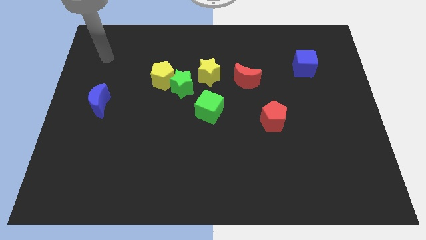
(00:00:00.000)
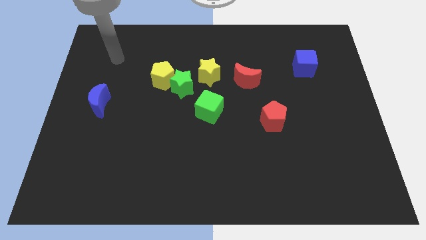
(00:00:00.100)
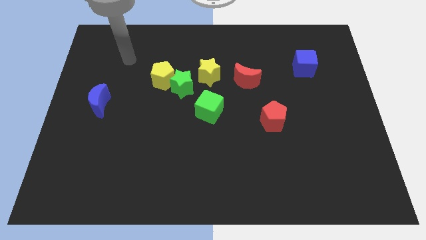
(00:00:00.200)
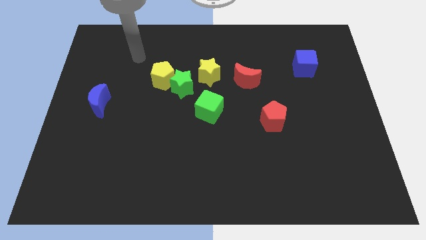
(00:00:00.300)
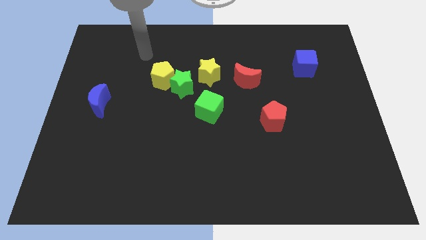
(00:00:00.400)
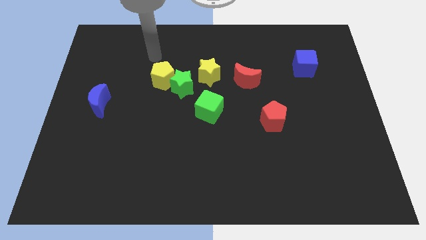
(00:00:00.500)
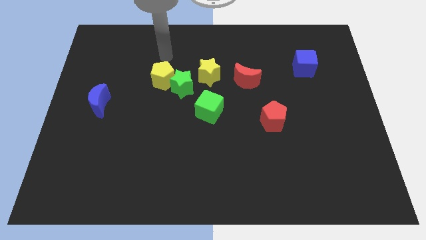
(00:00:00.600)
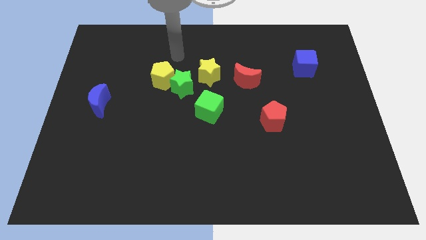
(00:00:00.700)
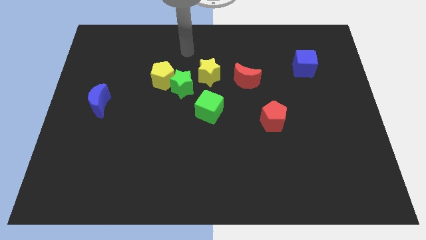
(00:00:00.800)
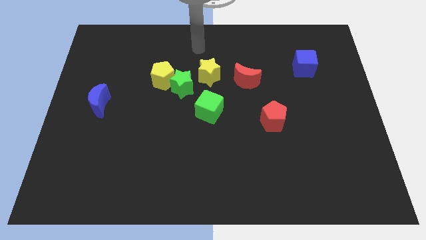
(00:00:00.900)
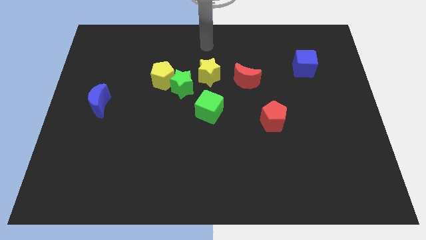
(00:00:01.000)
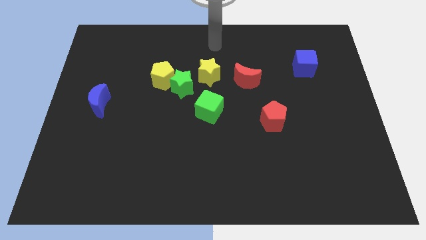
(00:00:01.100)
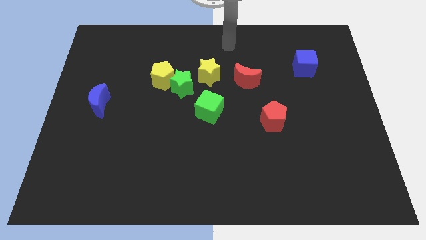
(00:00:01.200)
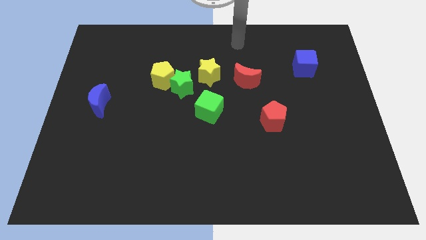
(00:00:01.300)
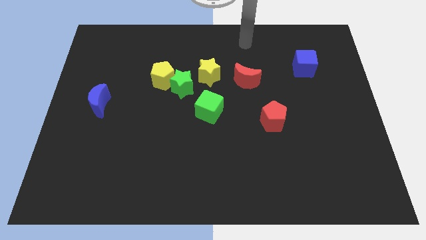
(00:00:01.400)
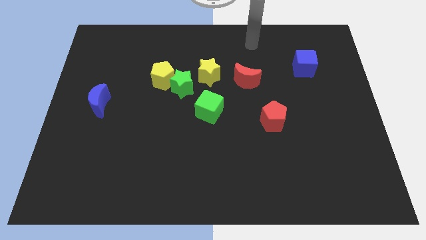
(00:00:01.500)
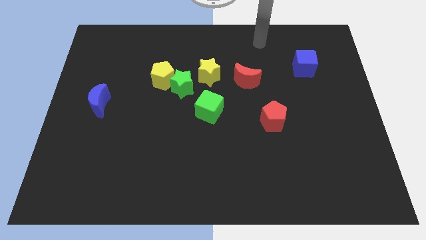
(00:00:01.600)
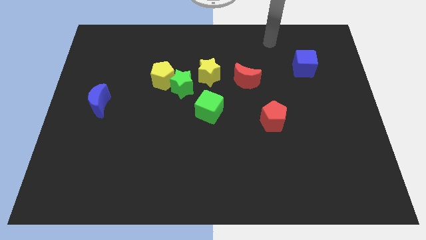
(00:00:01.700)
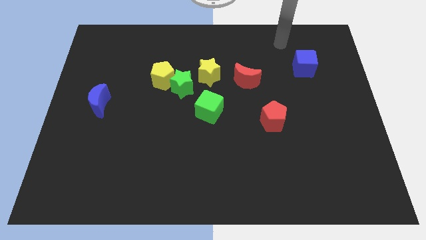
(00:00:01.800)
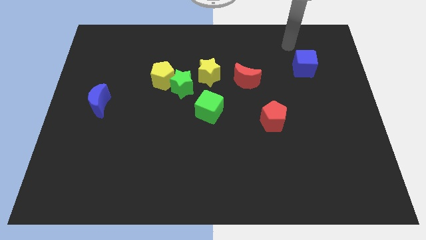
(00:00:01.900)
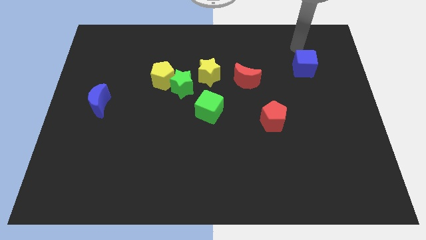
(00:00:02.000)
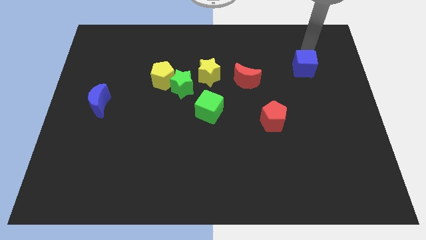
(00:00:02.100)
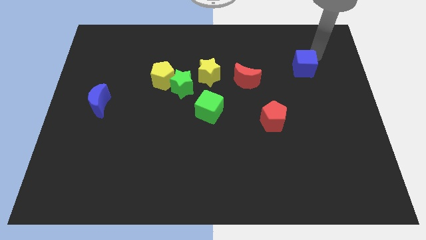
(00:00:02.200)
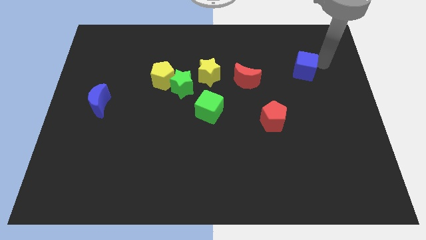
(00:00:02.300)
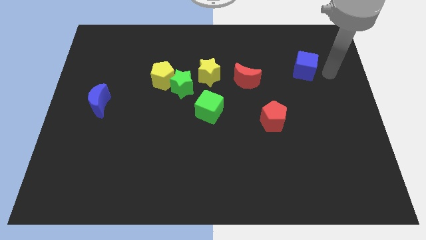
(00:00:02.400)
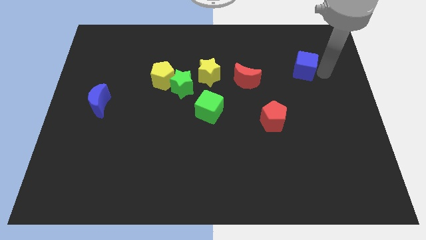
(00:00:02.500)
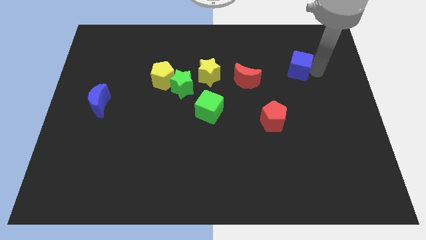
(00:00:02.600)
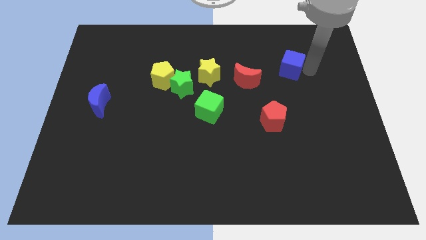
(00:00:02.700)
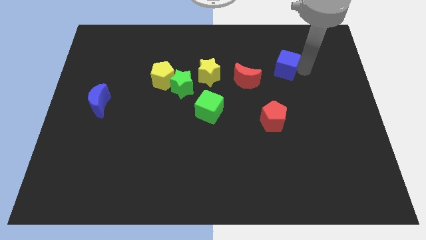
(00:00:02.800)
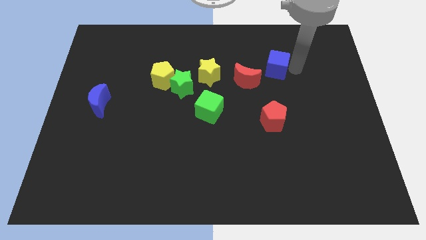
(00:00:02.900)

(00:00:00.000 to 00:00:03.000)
push the blue cube left somewhat

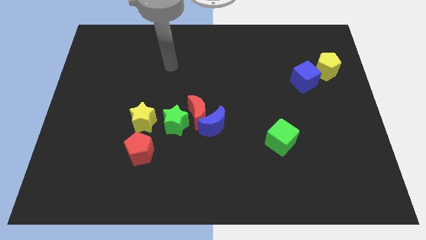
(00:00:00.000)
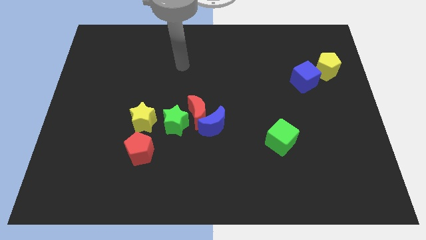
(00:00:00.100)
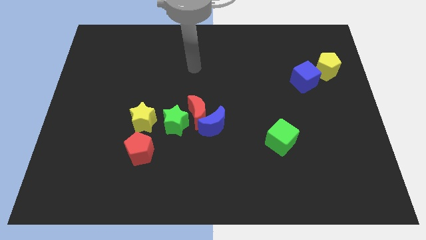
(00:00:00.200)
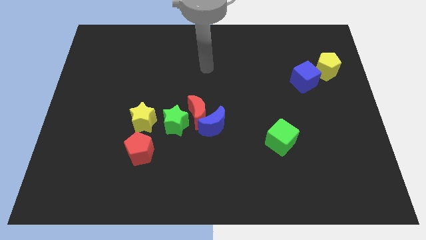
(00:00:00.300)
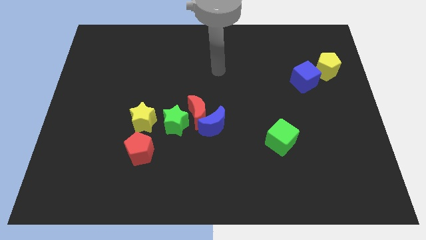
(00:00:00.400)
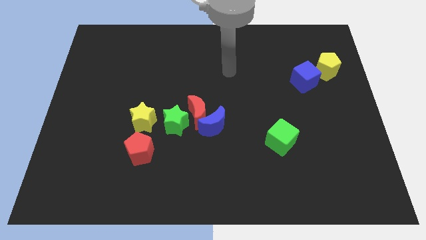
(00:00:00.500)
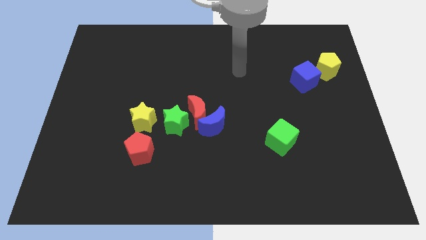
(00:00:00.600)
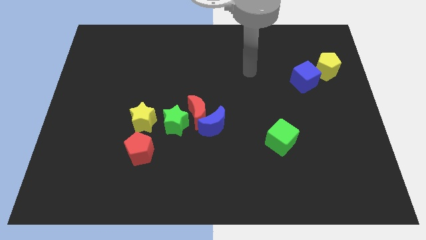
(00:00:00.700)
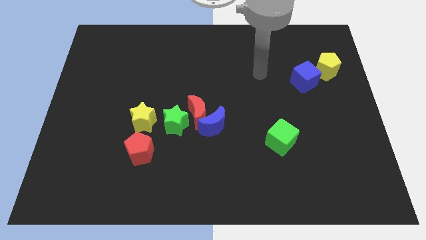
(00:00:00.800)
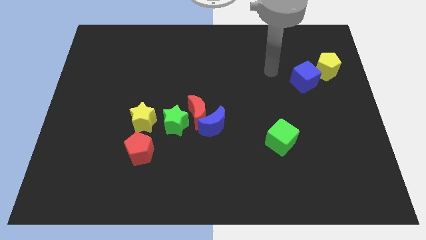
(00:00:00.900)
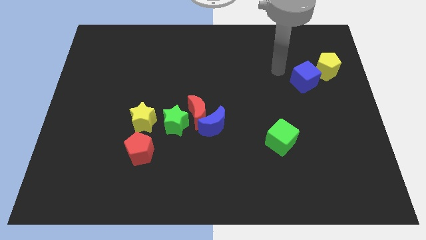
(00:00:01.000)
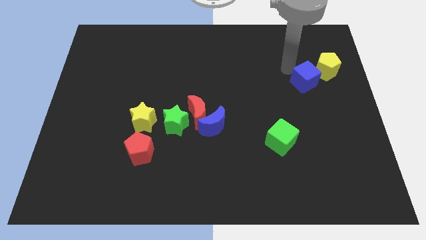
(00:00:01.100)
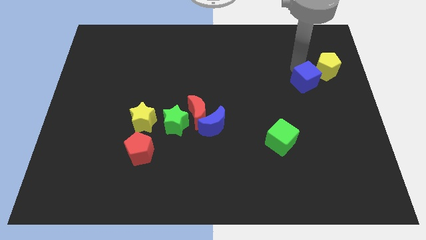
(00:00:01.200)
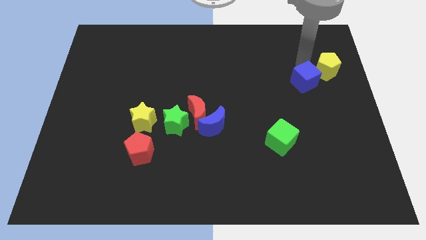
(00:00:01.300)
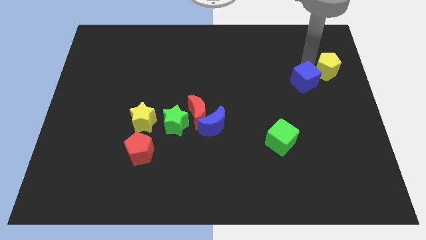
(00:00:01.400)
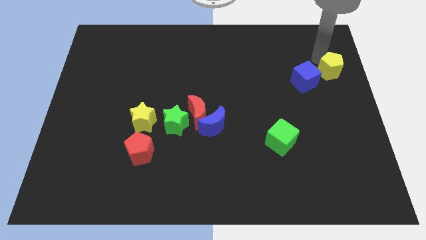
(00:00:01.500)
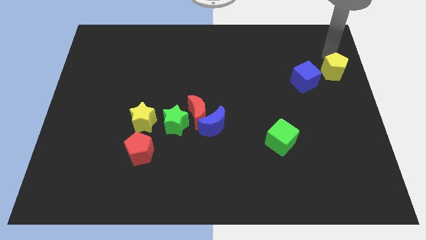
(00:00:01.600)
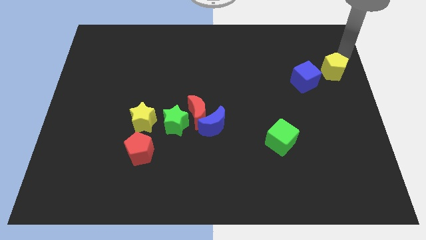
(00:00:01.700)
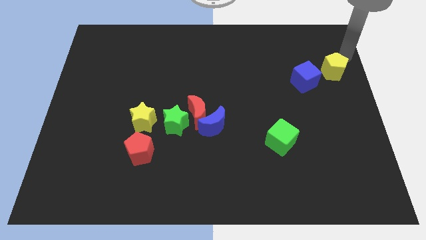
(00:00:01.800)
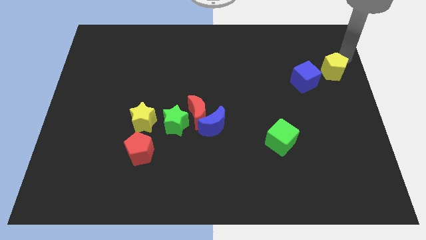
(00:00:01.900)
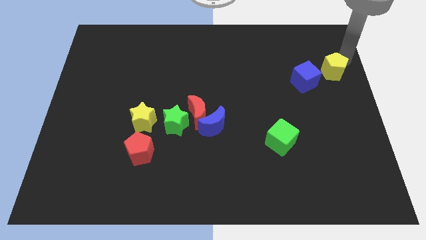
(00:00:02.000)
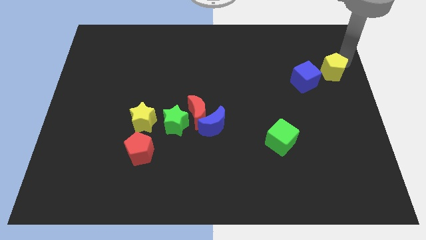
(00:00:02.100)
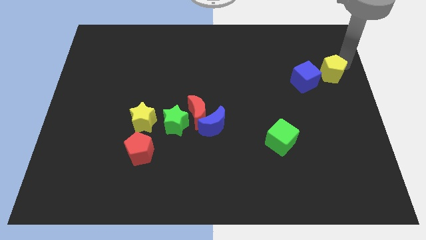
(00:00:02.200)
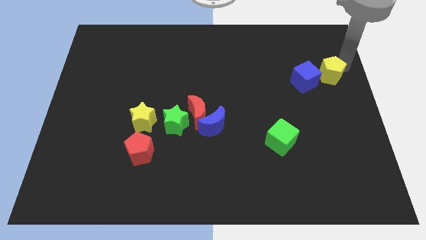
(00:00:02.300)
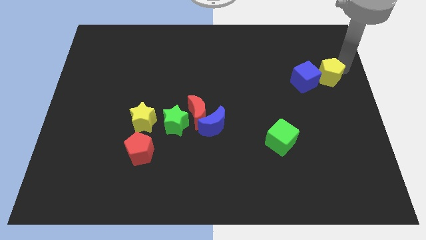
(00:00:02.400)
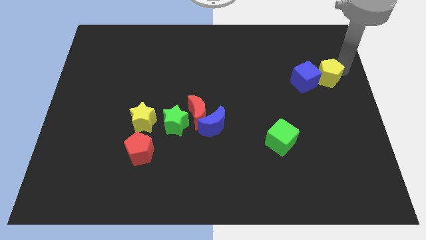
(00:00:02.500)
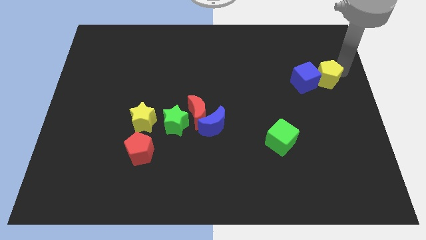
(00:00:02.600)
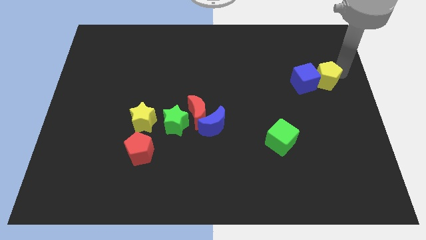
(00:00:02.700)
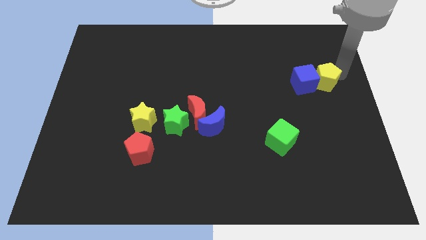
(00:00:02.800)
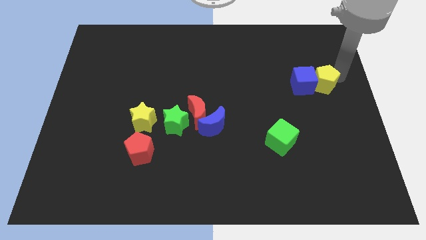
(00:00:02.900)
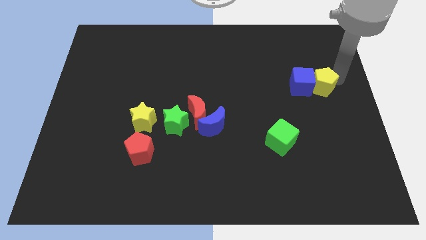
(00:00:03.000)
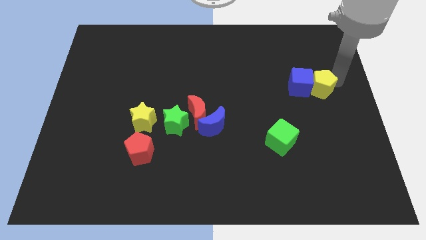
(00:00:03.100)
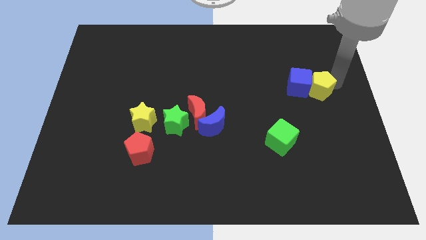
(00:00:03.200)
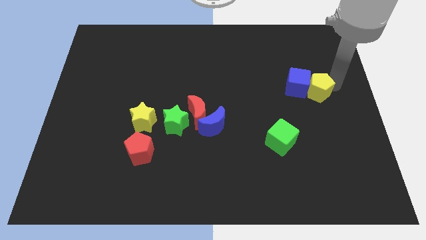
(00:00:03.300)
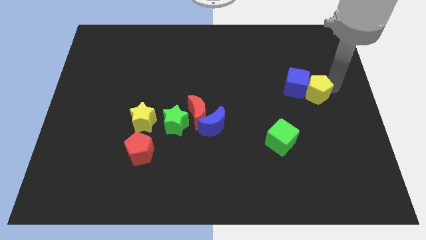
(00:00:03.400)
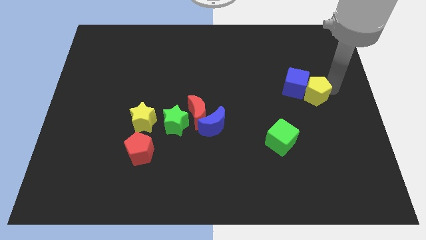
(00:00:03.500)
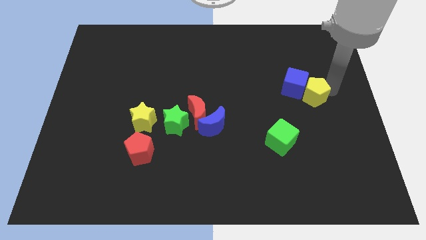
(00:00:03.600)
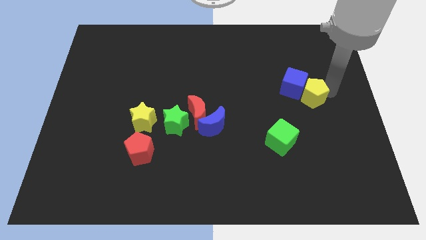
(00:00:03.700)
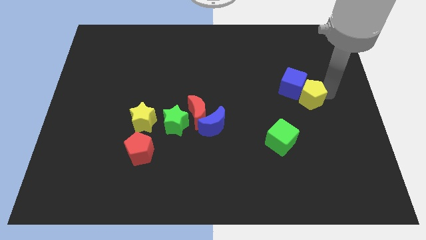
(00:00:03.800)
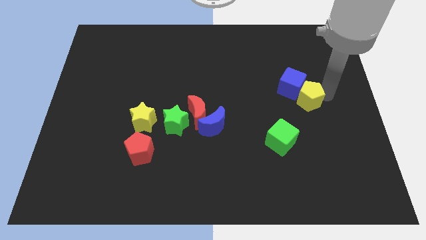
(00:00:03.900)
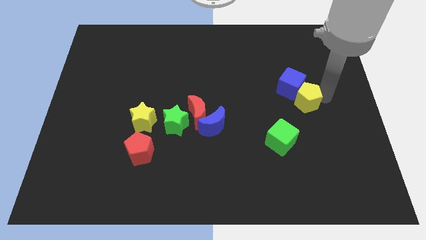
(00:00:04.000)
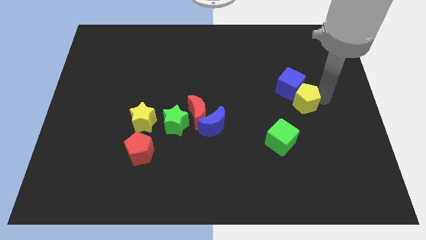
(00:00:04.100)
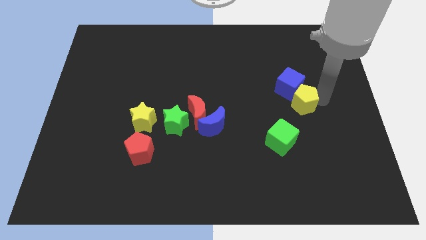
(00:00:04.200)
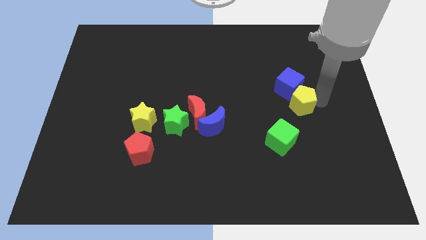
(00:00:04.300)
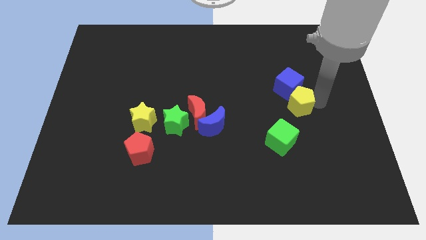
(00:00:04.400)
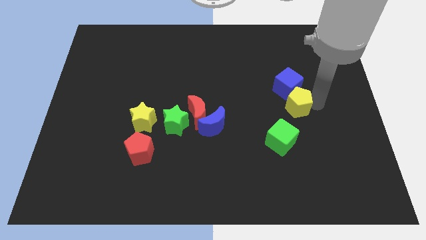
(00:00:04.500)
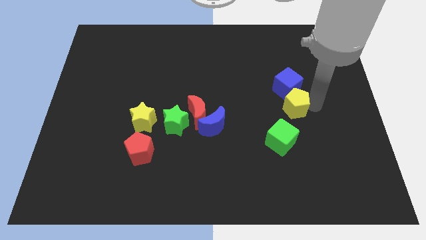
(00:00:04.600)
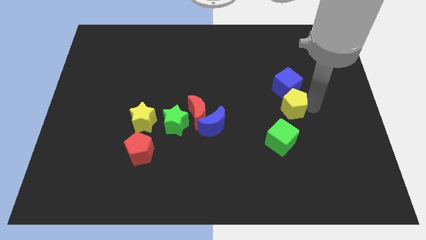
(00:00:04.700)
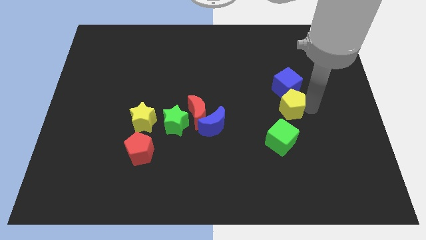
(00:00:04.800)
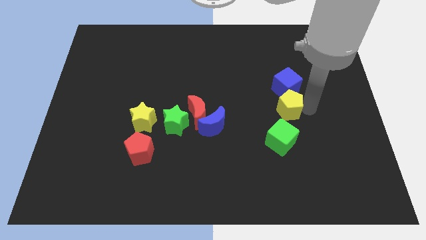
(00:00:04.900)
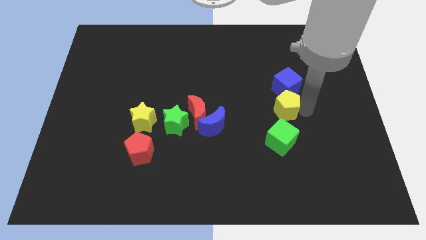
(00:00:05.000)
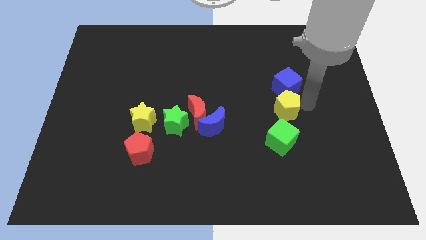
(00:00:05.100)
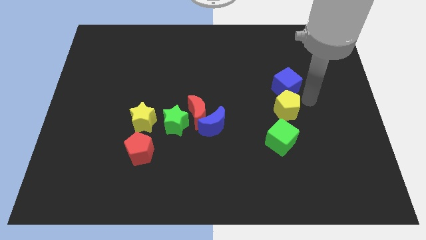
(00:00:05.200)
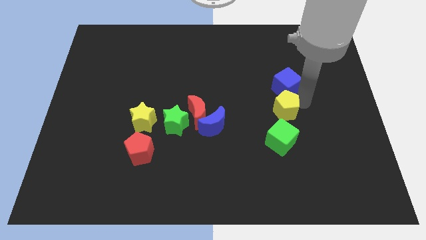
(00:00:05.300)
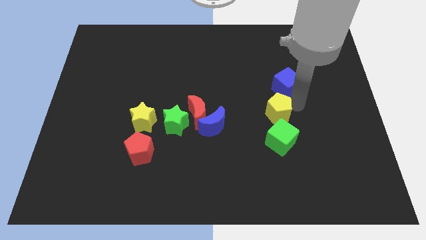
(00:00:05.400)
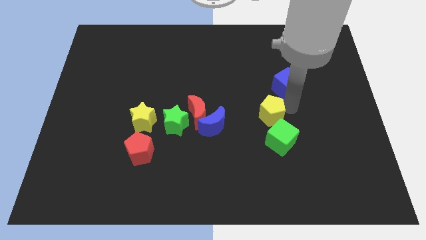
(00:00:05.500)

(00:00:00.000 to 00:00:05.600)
push the yellow pentagon downwards and then to the left
